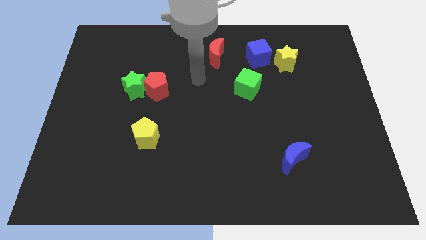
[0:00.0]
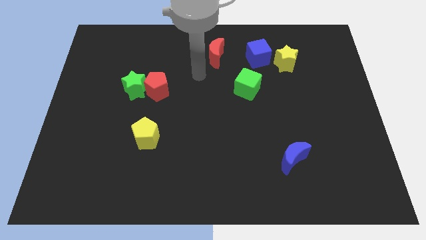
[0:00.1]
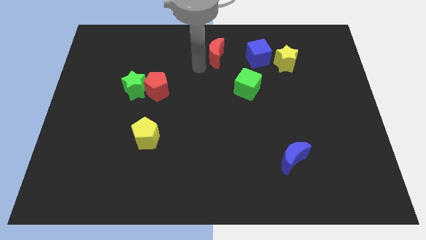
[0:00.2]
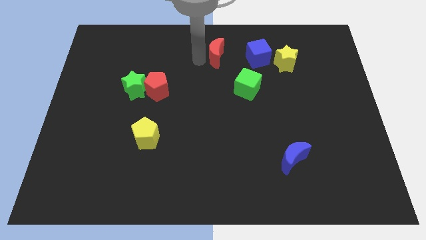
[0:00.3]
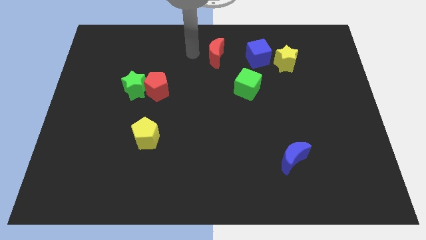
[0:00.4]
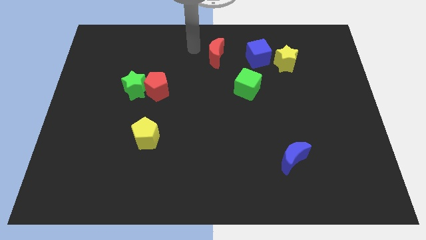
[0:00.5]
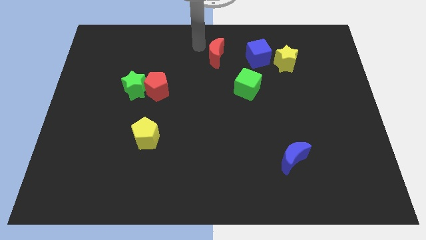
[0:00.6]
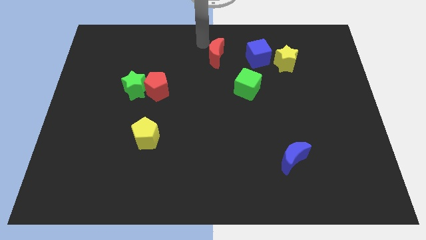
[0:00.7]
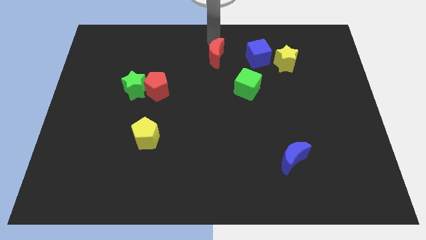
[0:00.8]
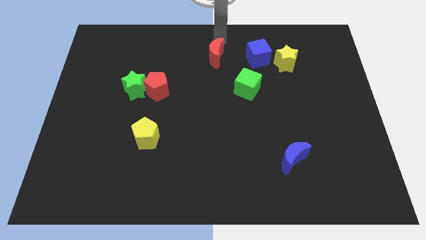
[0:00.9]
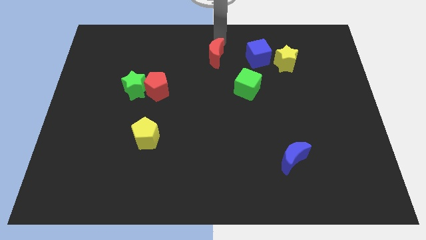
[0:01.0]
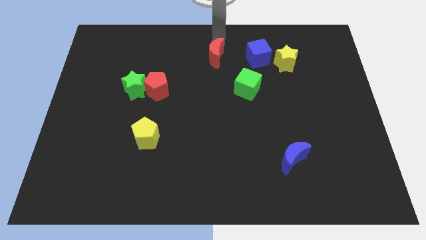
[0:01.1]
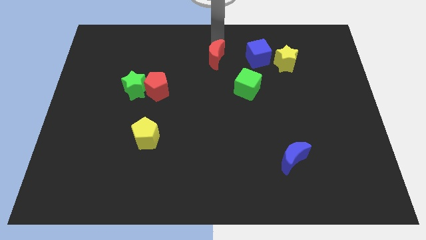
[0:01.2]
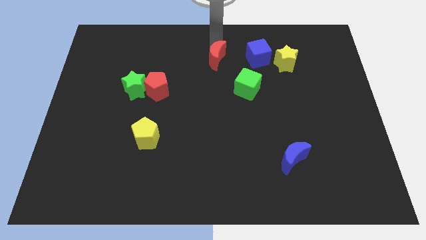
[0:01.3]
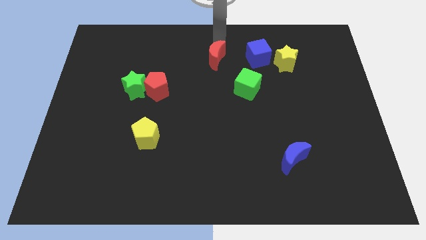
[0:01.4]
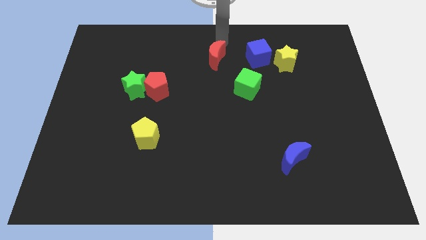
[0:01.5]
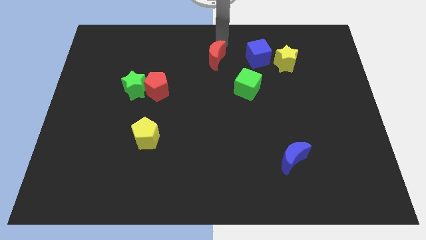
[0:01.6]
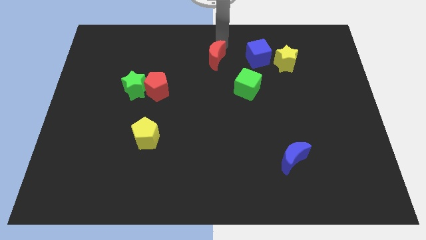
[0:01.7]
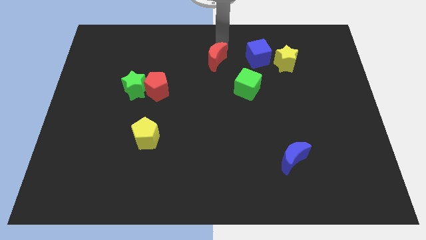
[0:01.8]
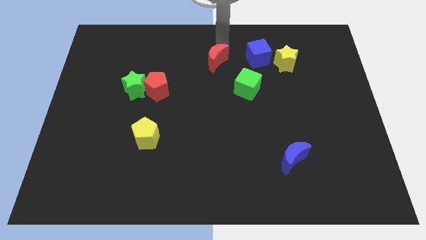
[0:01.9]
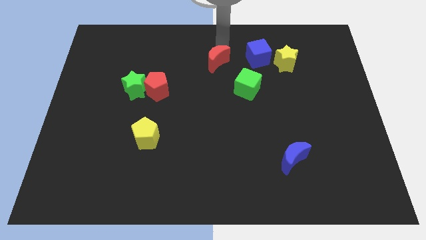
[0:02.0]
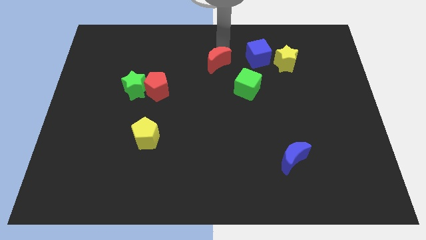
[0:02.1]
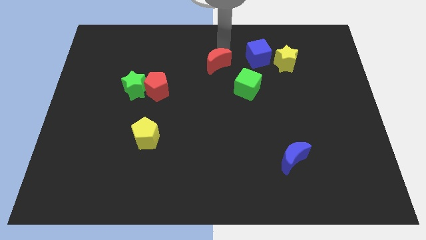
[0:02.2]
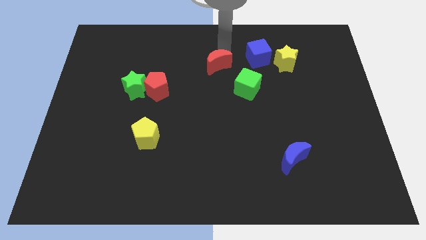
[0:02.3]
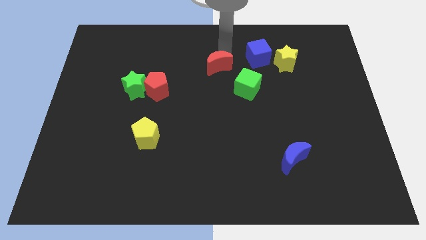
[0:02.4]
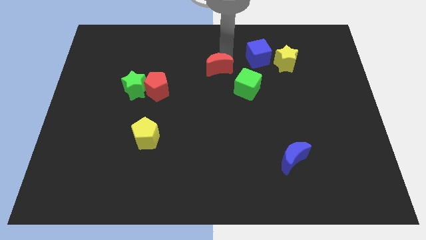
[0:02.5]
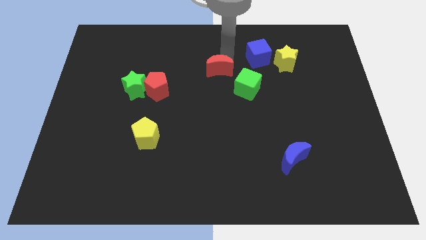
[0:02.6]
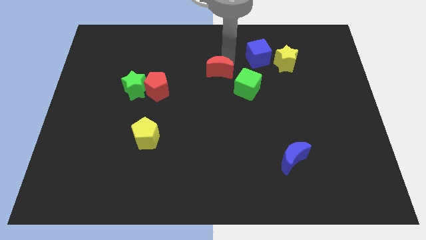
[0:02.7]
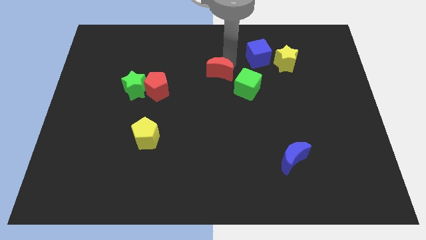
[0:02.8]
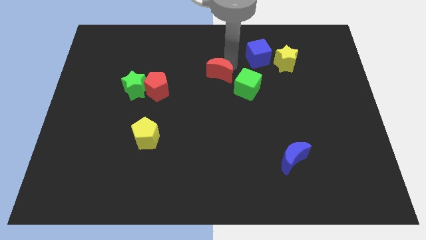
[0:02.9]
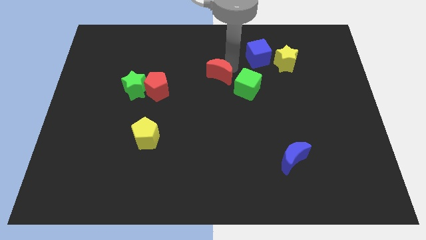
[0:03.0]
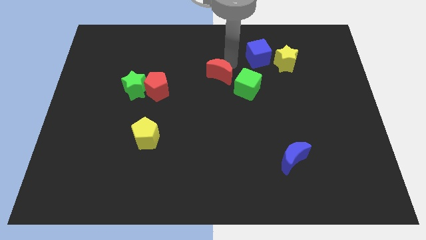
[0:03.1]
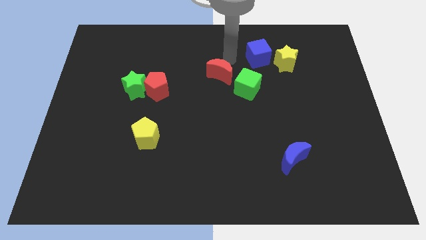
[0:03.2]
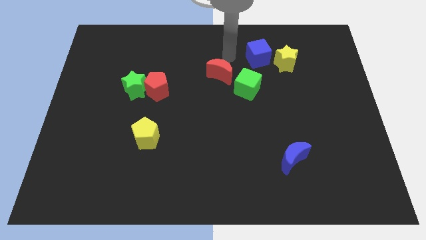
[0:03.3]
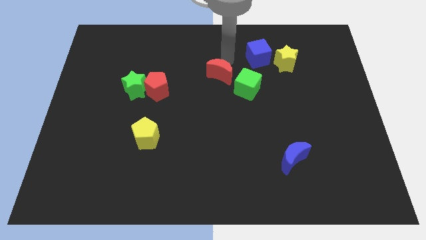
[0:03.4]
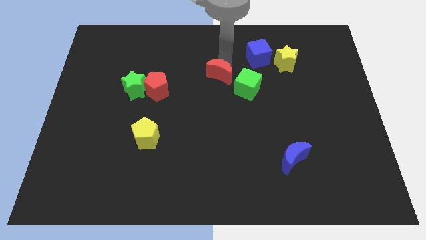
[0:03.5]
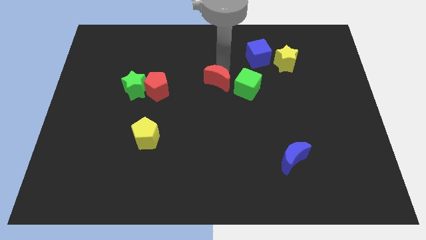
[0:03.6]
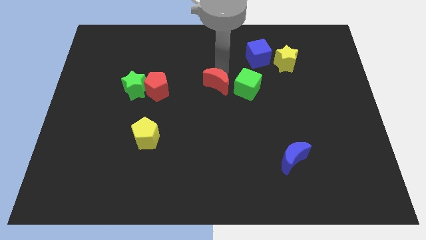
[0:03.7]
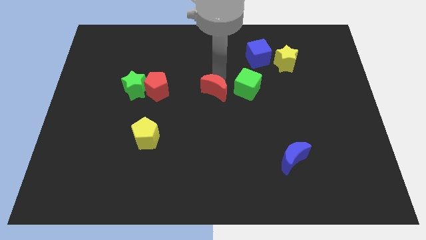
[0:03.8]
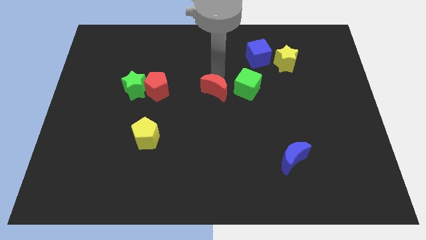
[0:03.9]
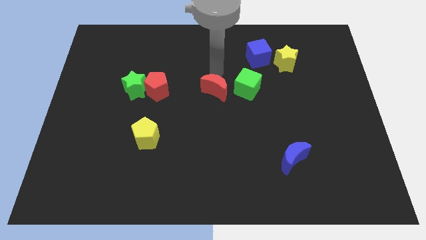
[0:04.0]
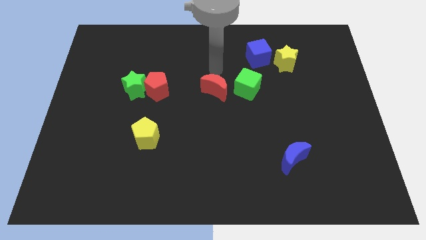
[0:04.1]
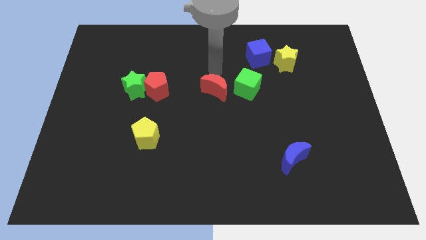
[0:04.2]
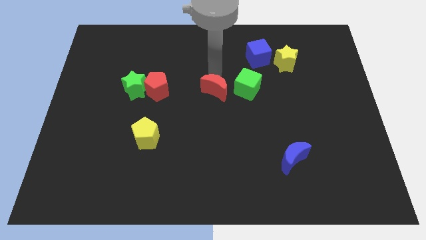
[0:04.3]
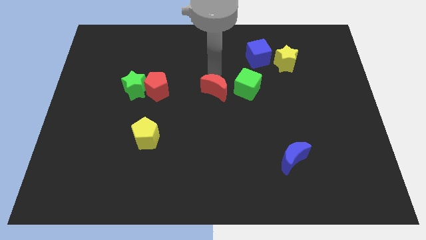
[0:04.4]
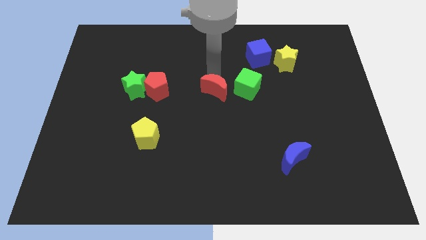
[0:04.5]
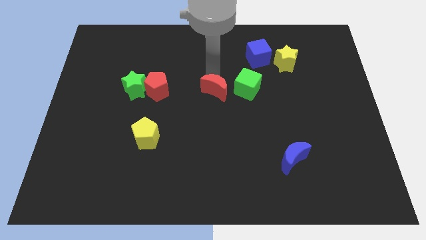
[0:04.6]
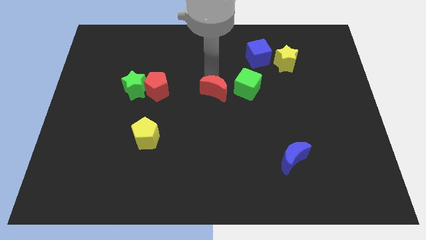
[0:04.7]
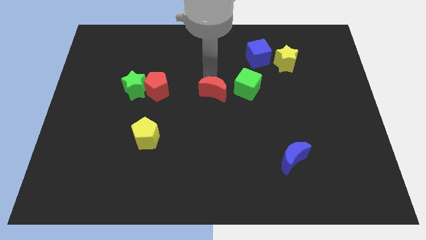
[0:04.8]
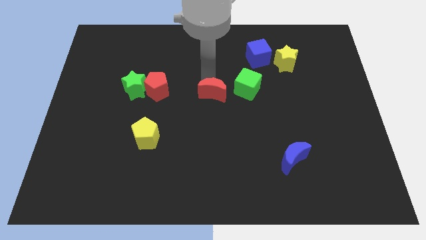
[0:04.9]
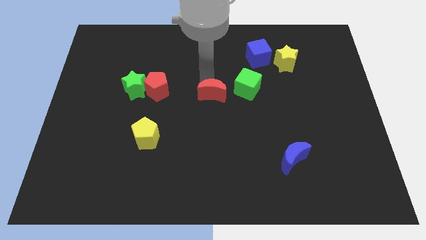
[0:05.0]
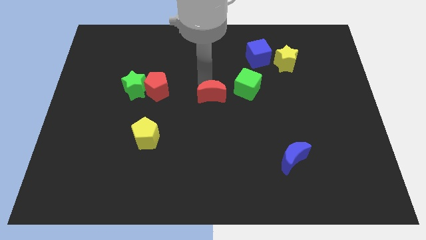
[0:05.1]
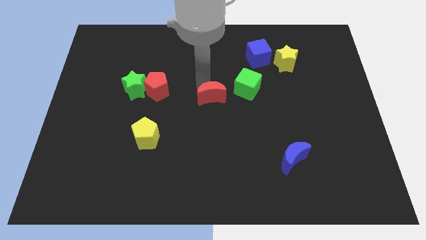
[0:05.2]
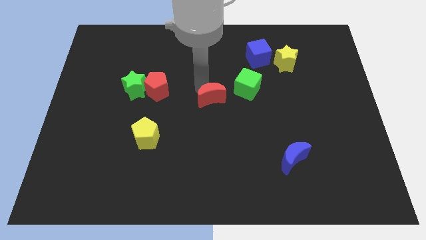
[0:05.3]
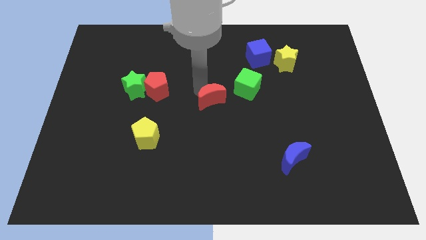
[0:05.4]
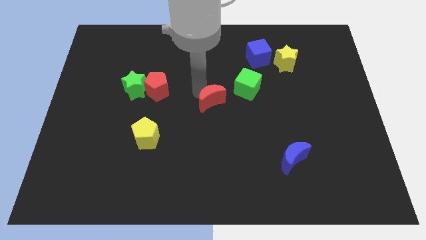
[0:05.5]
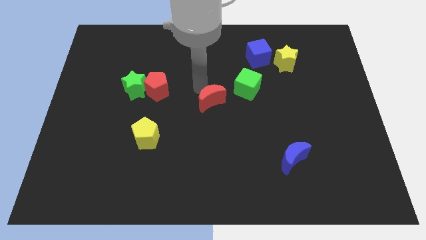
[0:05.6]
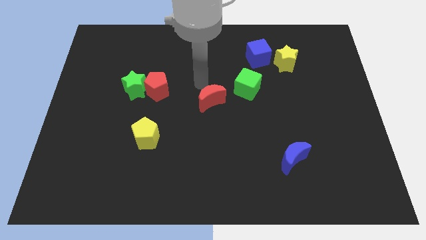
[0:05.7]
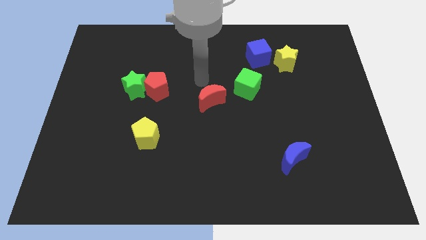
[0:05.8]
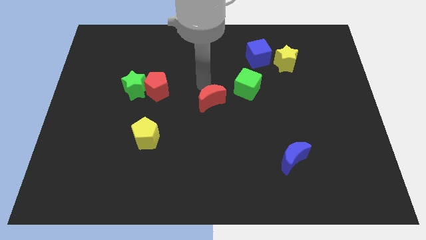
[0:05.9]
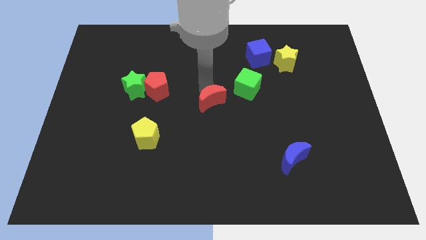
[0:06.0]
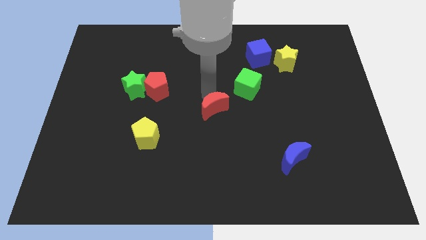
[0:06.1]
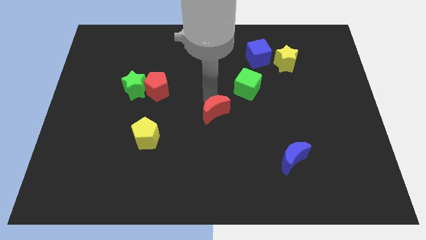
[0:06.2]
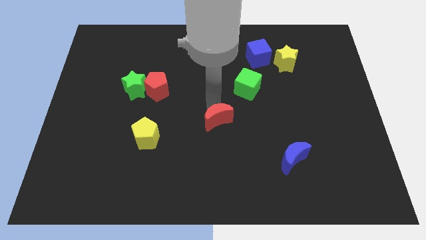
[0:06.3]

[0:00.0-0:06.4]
push the red moon down

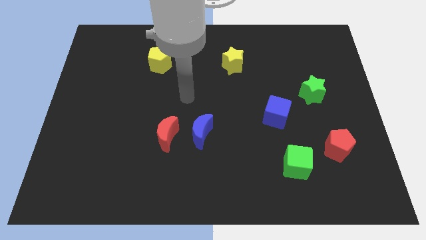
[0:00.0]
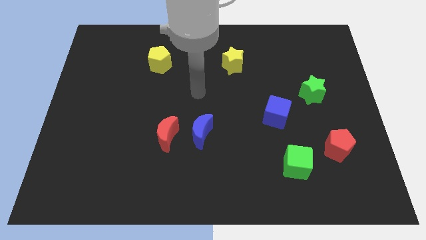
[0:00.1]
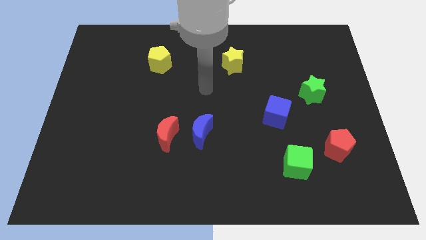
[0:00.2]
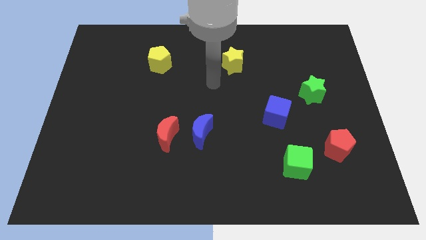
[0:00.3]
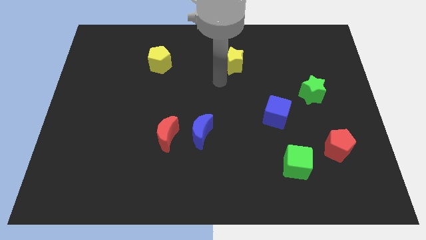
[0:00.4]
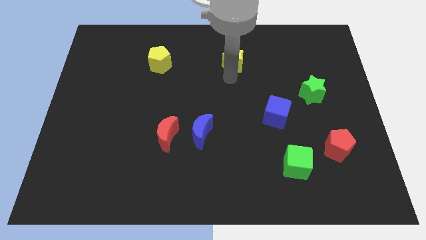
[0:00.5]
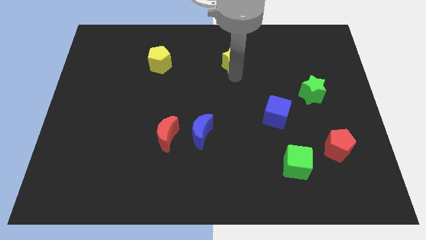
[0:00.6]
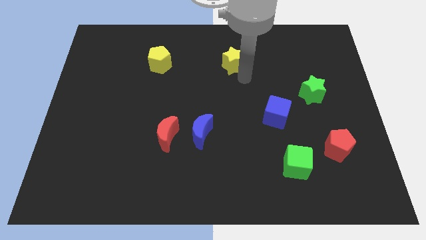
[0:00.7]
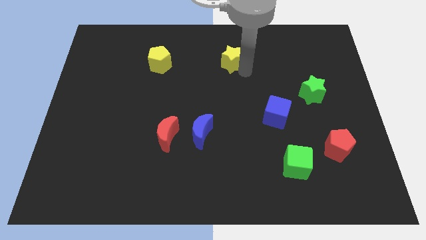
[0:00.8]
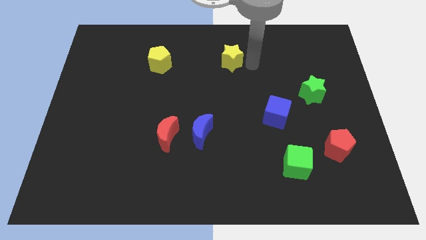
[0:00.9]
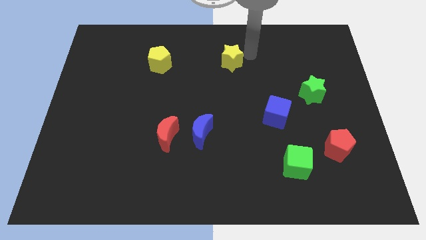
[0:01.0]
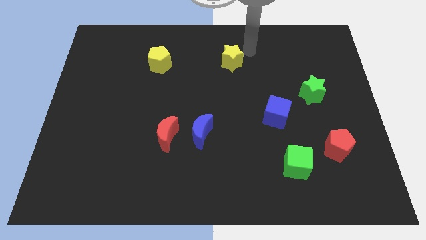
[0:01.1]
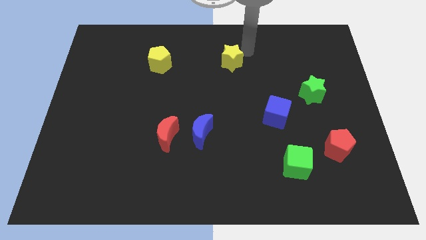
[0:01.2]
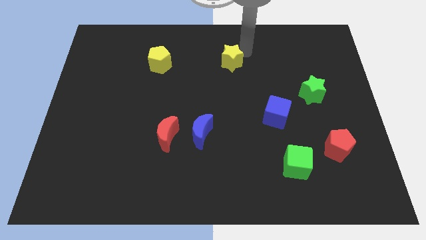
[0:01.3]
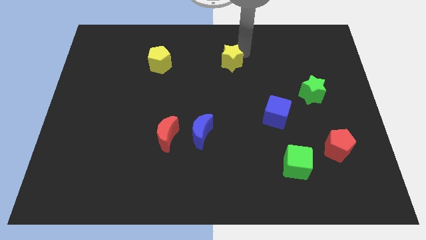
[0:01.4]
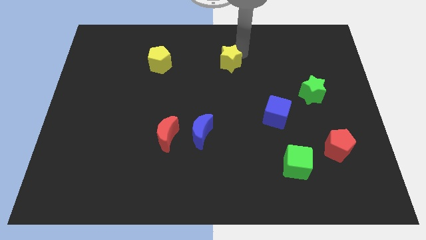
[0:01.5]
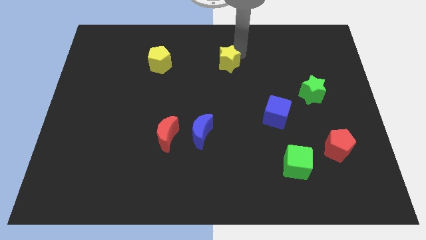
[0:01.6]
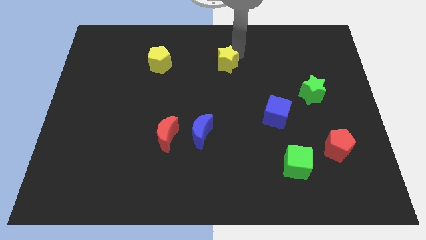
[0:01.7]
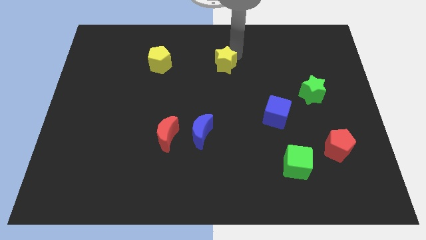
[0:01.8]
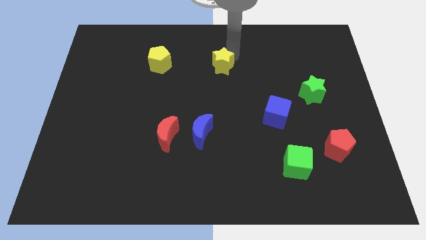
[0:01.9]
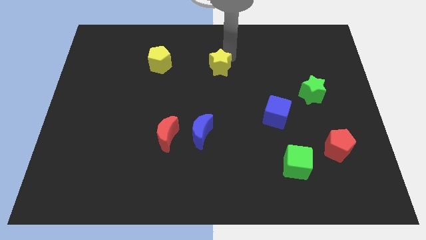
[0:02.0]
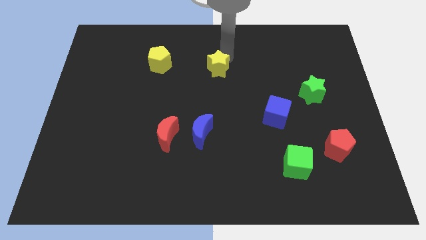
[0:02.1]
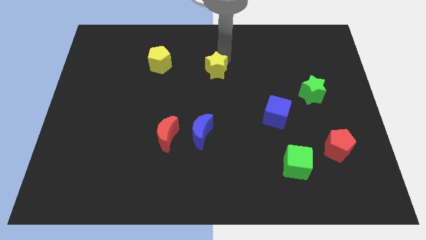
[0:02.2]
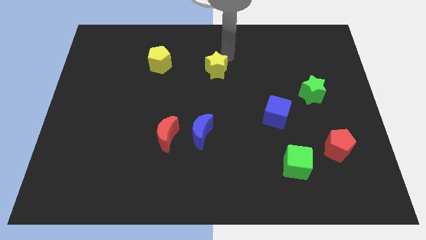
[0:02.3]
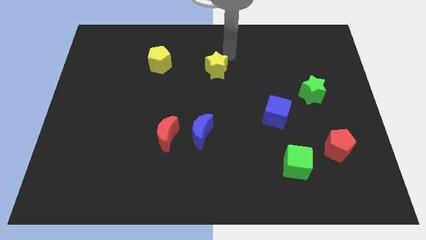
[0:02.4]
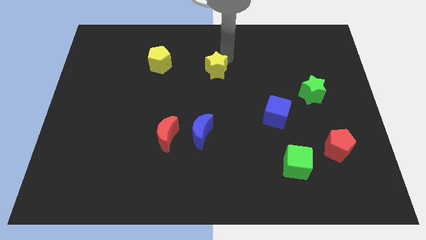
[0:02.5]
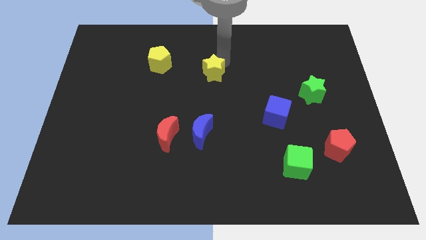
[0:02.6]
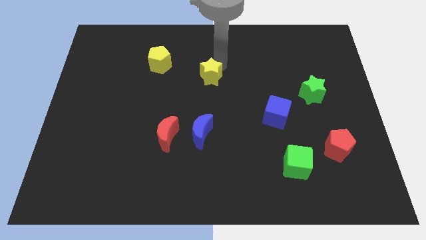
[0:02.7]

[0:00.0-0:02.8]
slide the yellow star a little downwards and to the left diagonally
